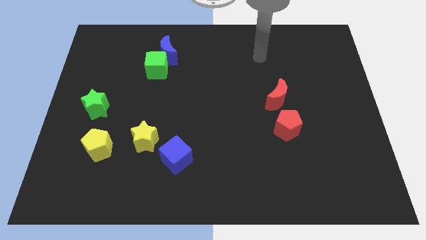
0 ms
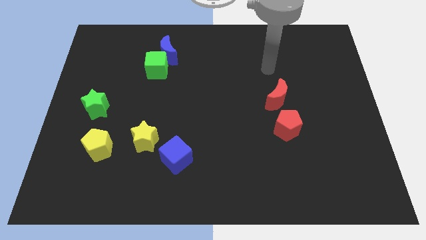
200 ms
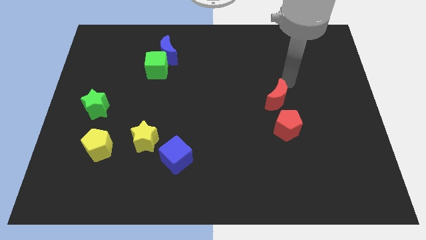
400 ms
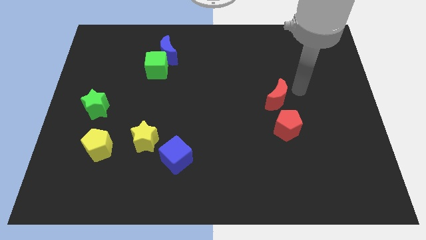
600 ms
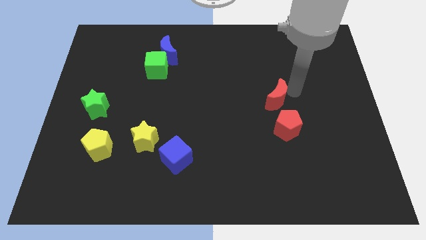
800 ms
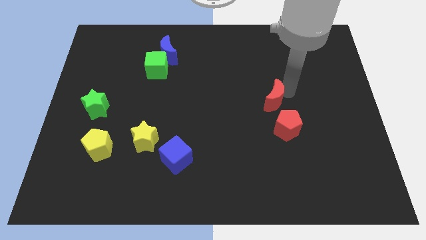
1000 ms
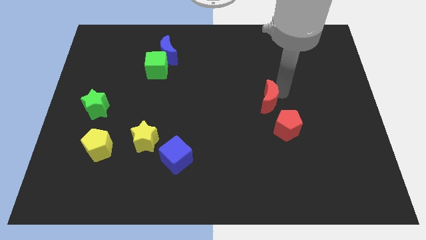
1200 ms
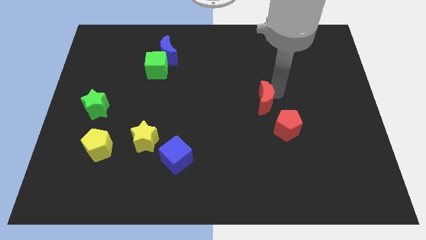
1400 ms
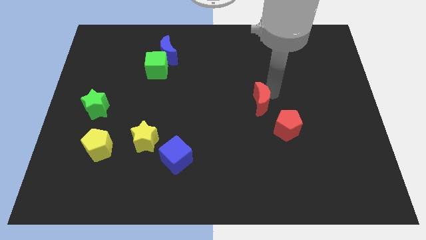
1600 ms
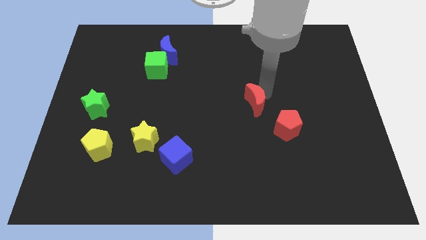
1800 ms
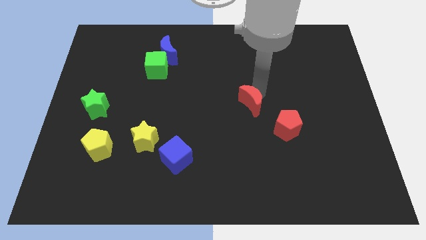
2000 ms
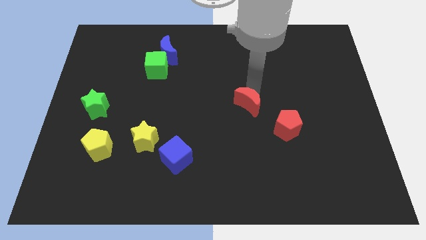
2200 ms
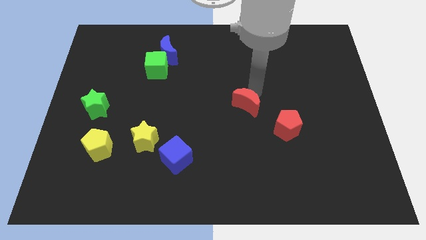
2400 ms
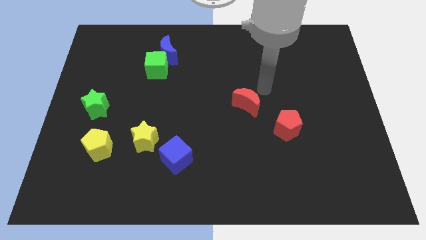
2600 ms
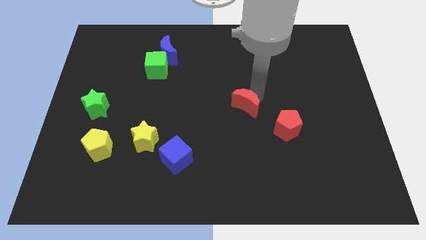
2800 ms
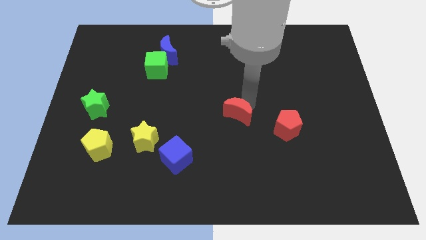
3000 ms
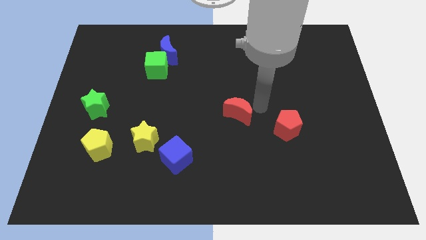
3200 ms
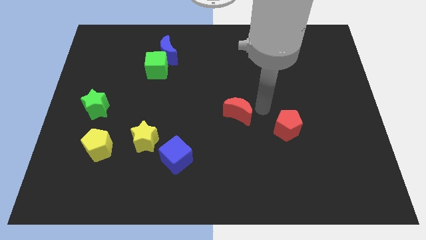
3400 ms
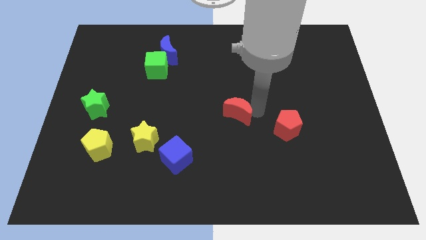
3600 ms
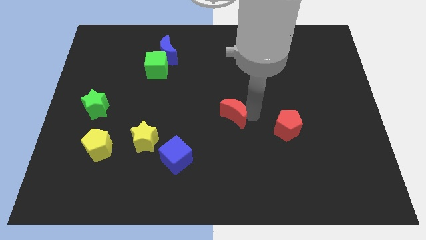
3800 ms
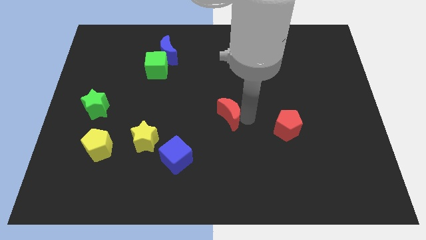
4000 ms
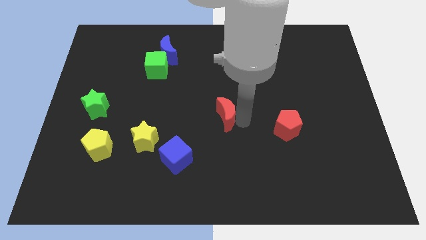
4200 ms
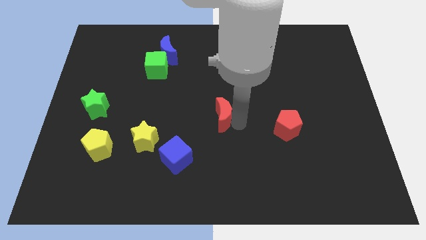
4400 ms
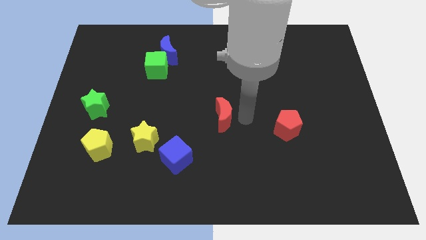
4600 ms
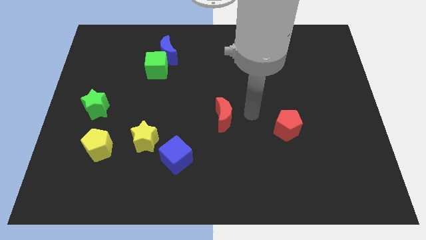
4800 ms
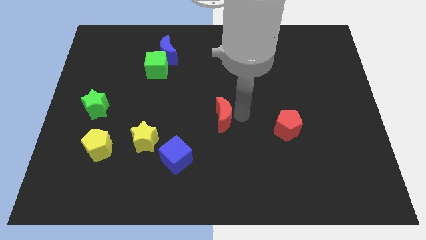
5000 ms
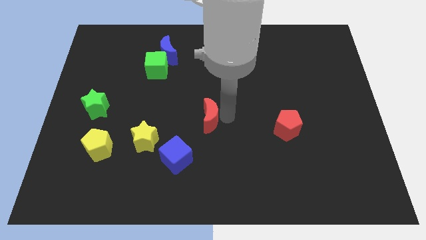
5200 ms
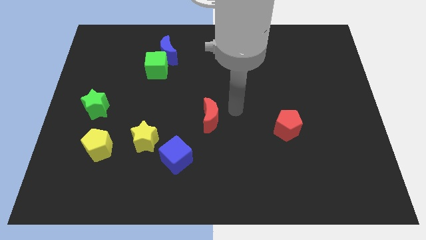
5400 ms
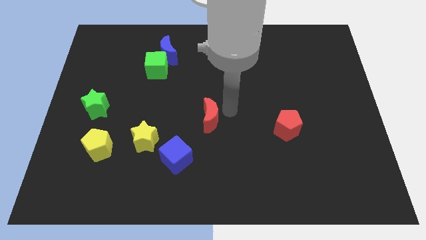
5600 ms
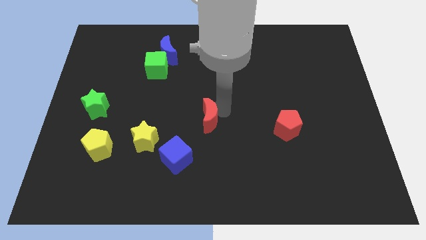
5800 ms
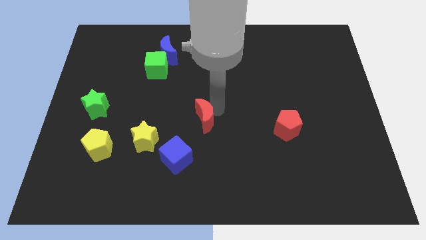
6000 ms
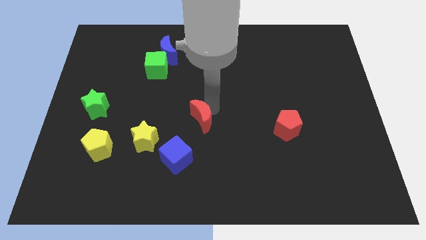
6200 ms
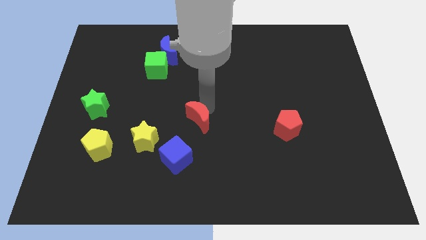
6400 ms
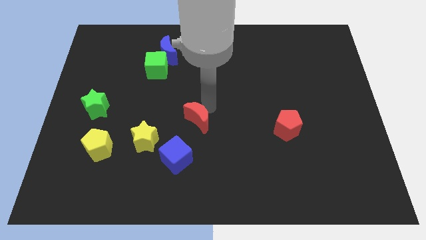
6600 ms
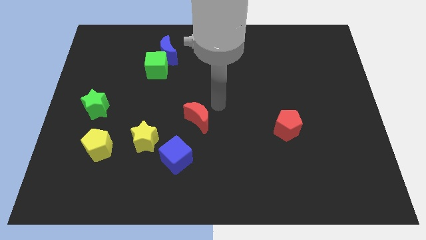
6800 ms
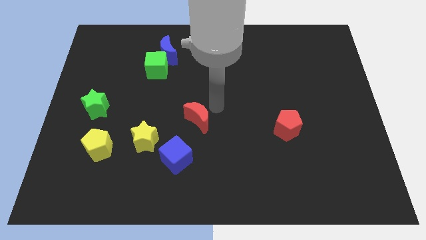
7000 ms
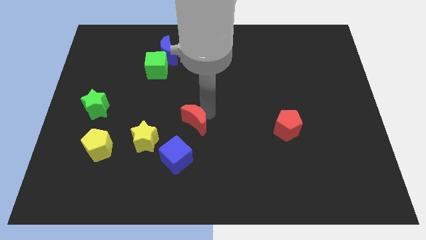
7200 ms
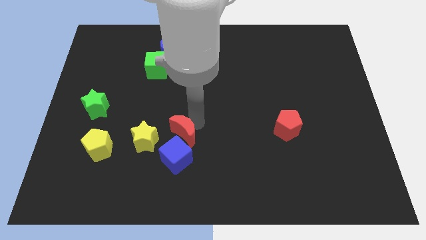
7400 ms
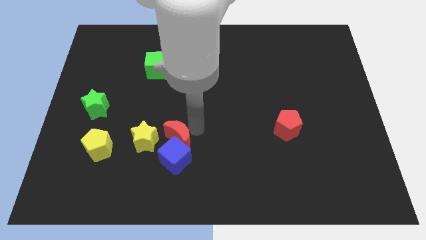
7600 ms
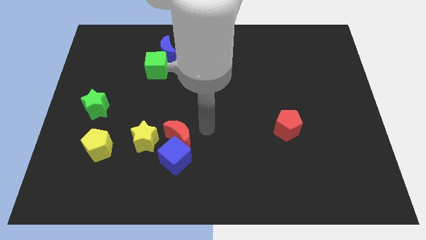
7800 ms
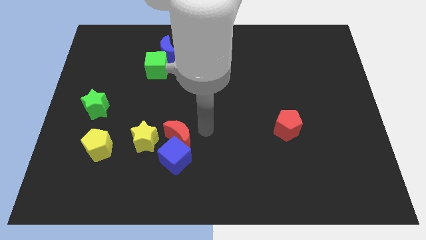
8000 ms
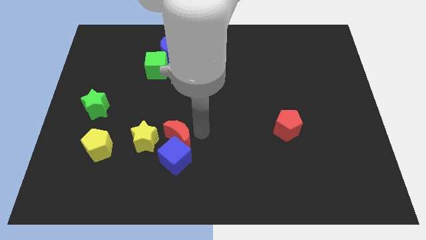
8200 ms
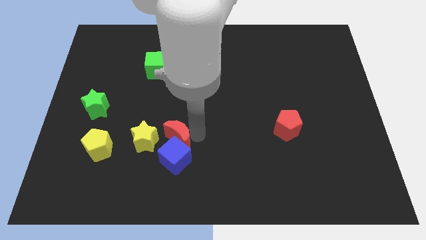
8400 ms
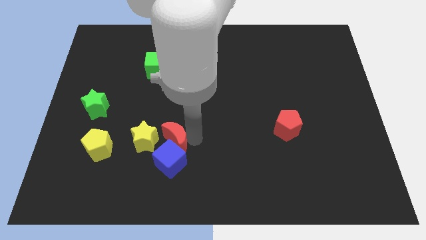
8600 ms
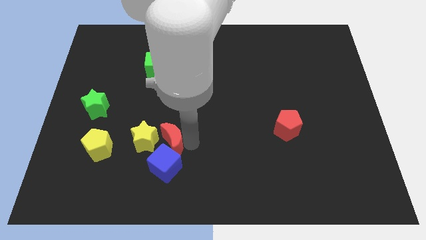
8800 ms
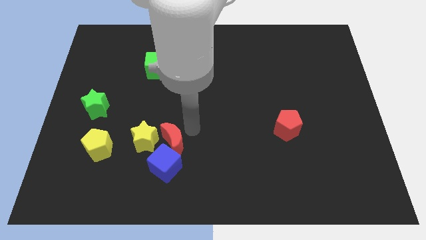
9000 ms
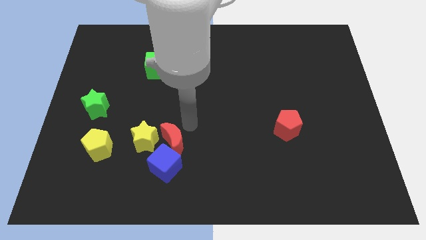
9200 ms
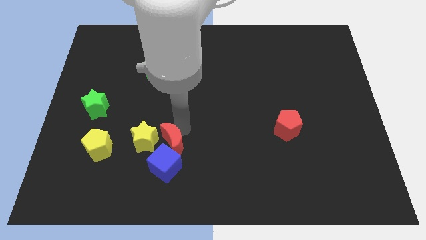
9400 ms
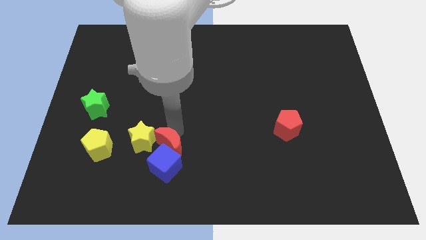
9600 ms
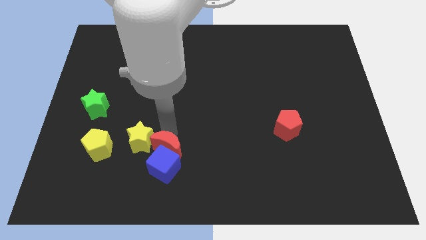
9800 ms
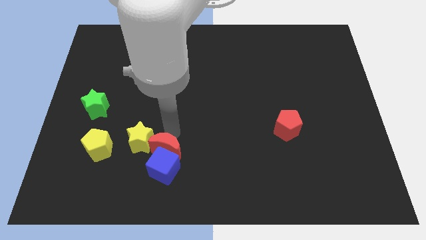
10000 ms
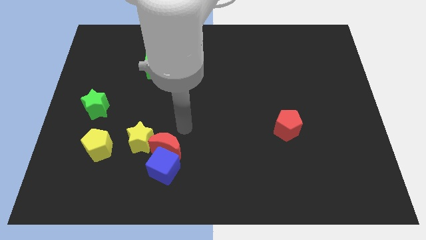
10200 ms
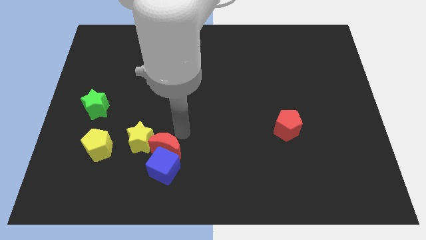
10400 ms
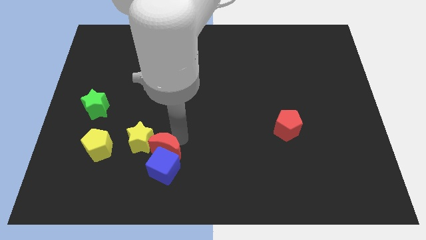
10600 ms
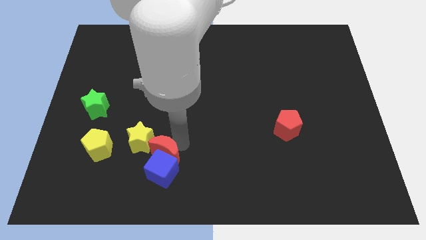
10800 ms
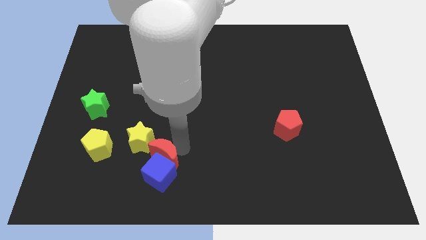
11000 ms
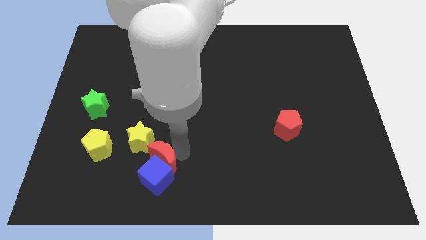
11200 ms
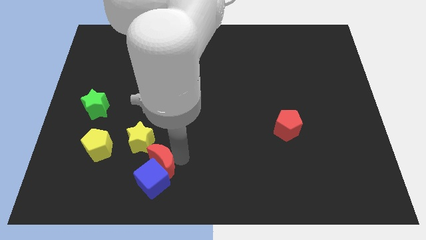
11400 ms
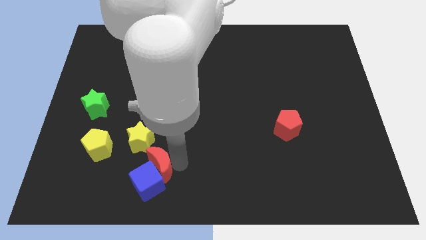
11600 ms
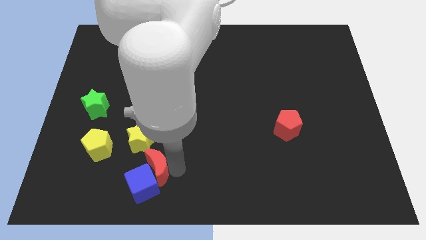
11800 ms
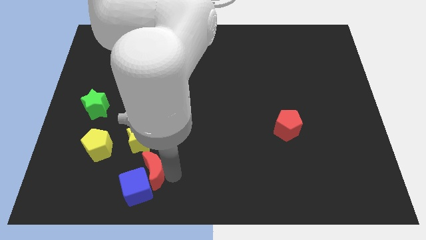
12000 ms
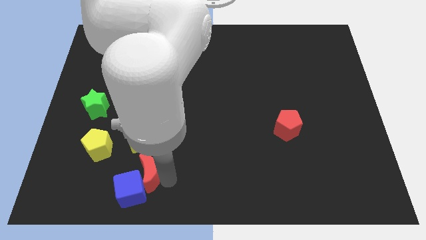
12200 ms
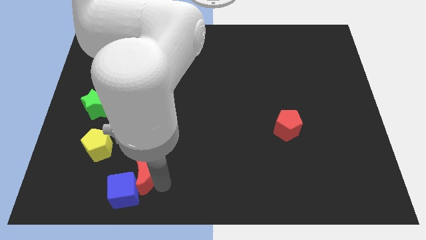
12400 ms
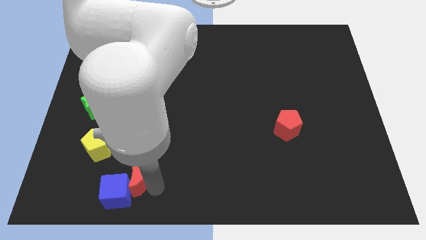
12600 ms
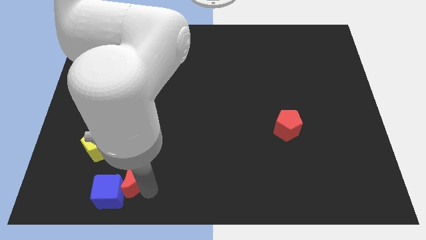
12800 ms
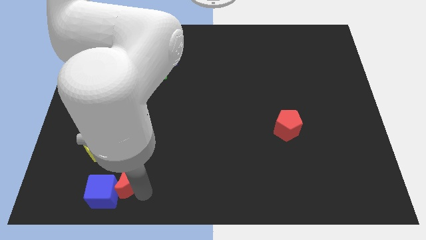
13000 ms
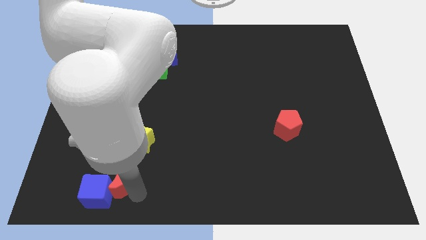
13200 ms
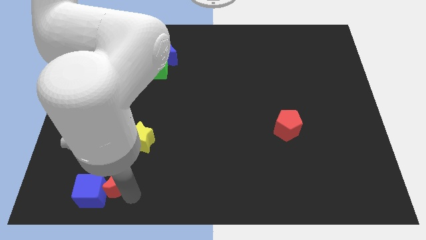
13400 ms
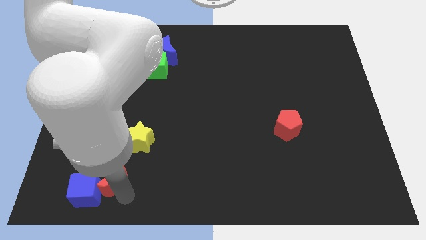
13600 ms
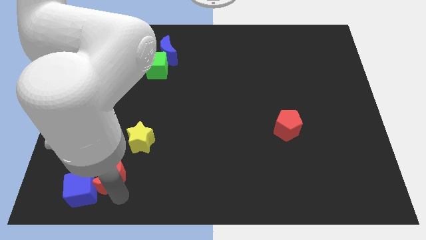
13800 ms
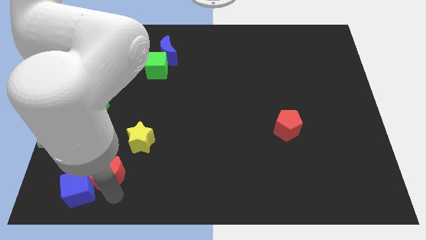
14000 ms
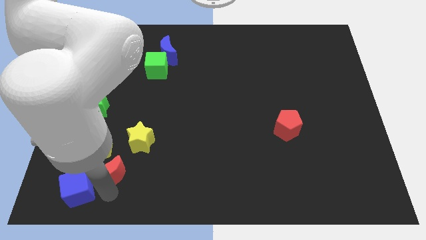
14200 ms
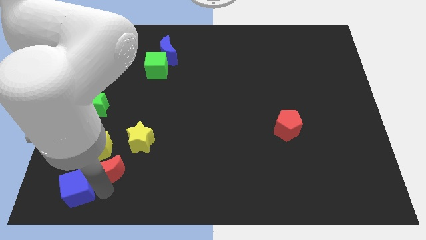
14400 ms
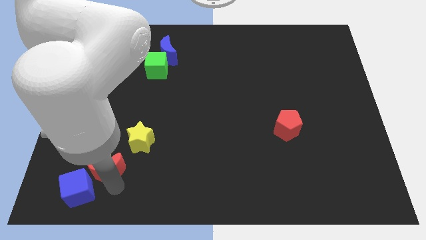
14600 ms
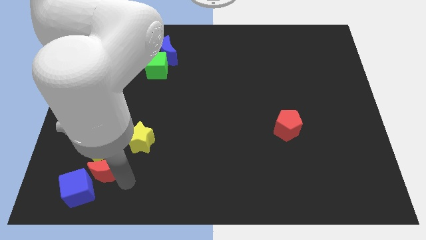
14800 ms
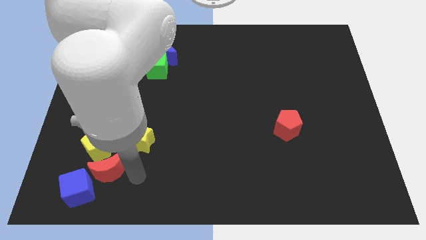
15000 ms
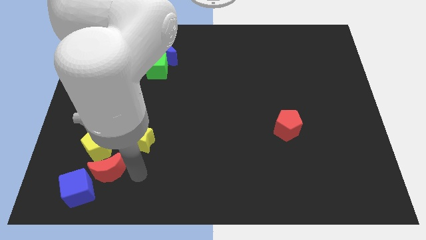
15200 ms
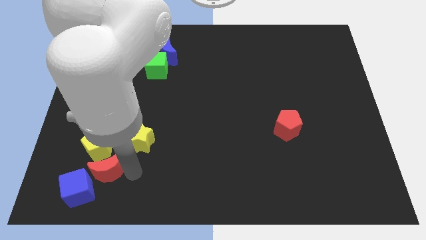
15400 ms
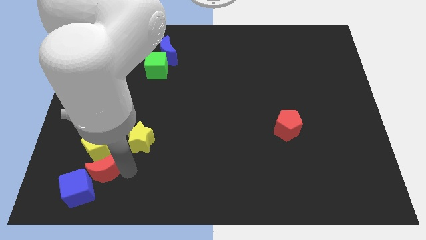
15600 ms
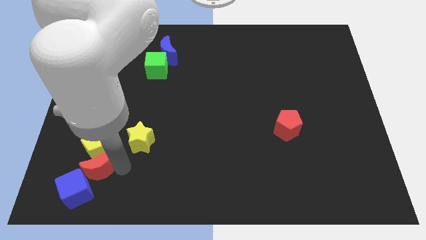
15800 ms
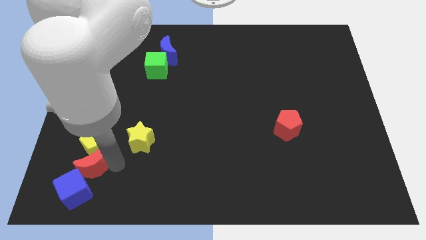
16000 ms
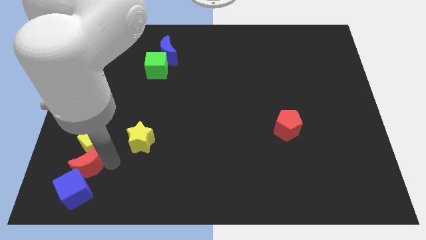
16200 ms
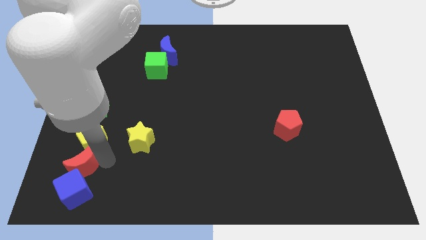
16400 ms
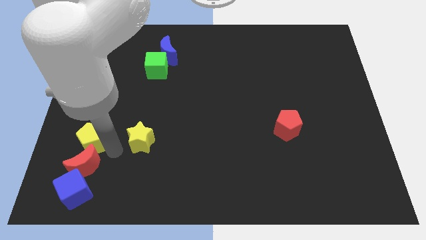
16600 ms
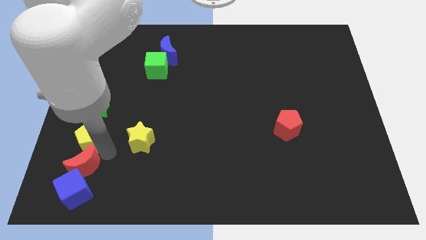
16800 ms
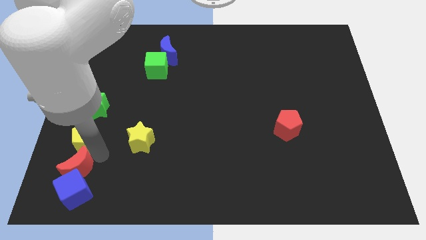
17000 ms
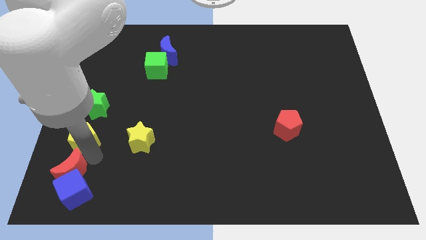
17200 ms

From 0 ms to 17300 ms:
push the red moon to the bottom left of the board
